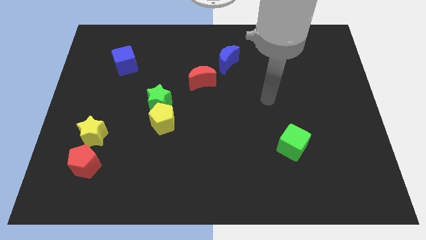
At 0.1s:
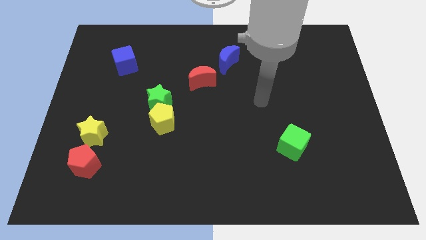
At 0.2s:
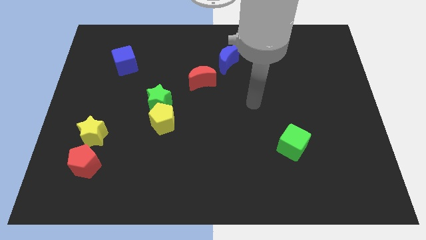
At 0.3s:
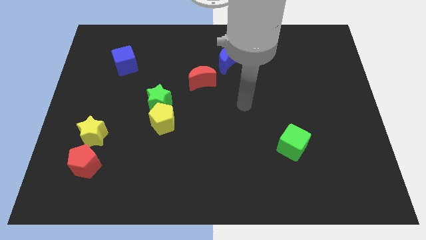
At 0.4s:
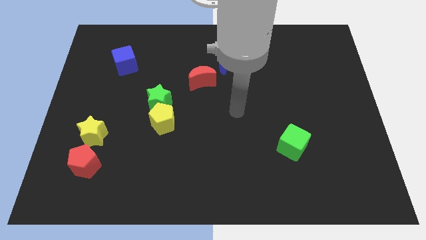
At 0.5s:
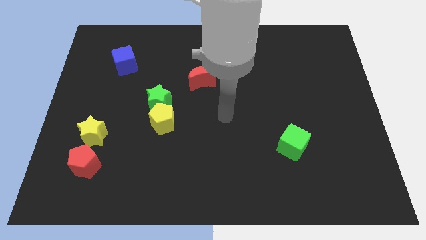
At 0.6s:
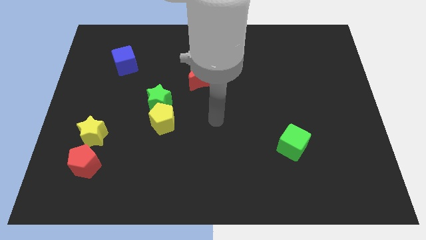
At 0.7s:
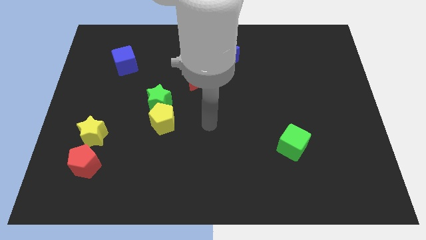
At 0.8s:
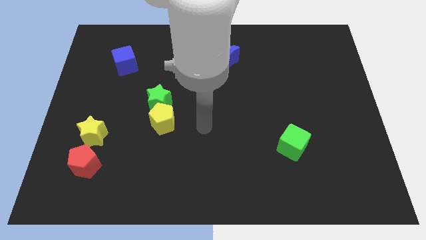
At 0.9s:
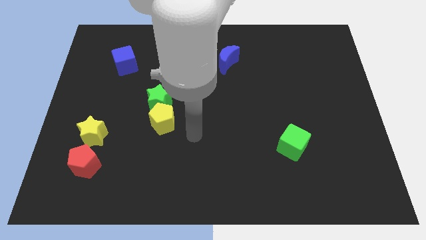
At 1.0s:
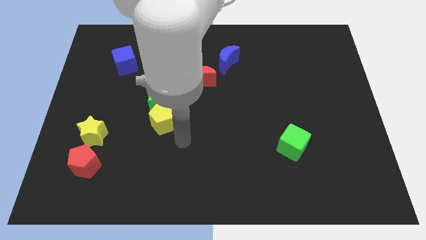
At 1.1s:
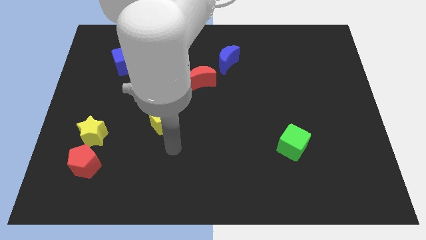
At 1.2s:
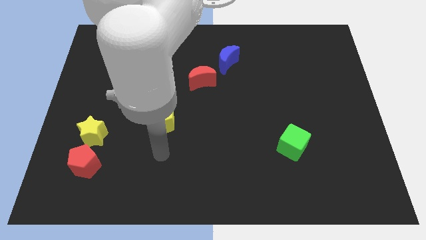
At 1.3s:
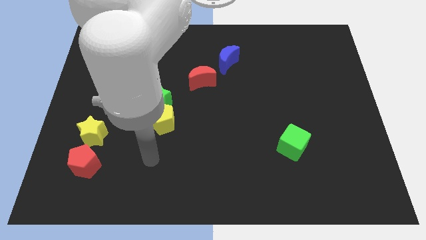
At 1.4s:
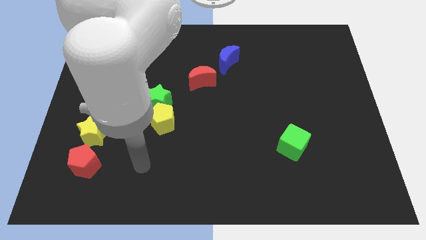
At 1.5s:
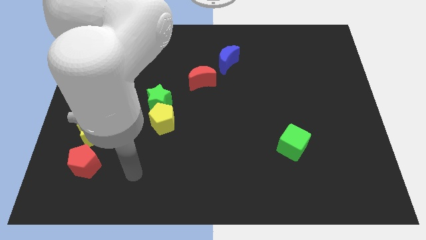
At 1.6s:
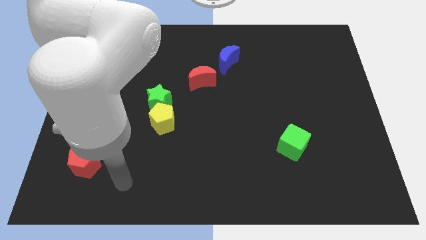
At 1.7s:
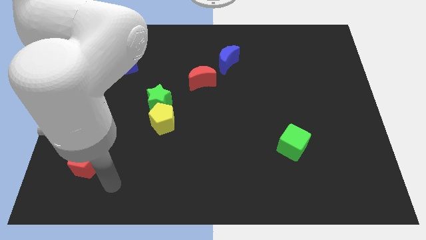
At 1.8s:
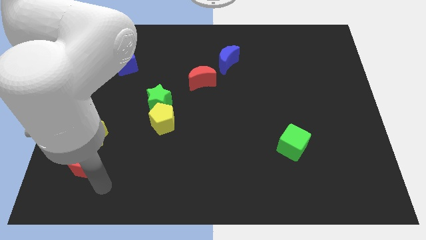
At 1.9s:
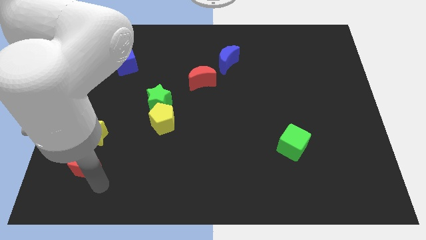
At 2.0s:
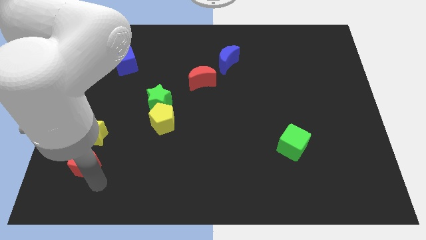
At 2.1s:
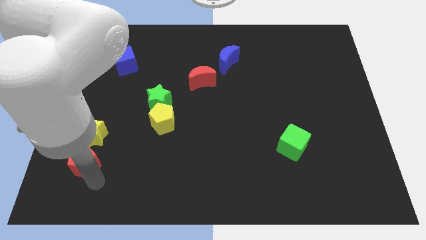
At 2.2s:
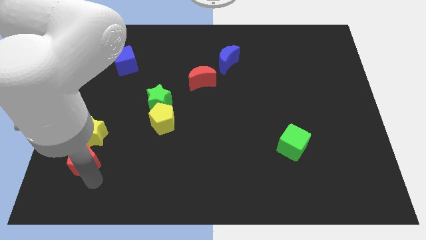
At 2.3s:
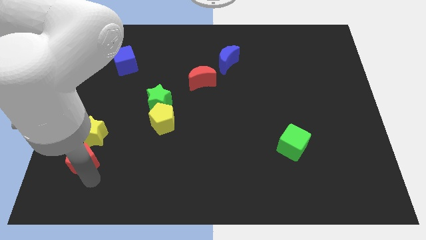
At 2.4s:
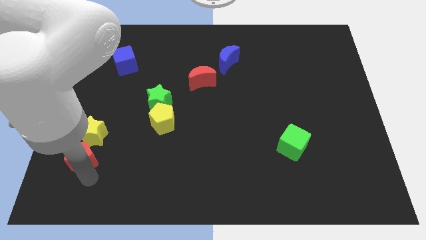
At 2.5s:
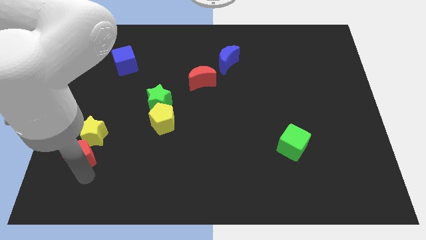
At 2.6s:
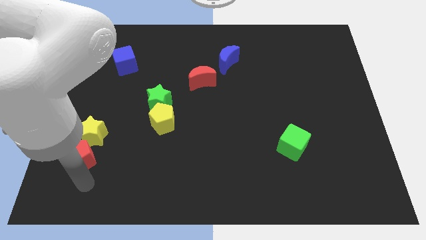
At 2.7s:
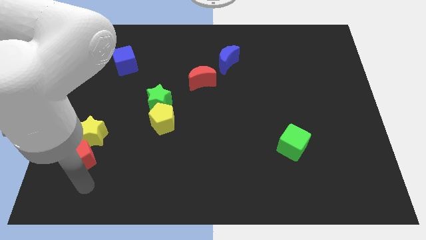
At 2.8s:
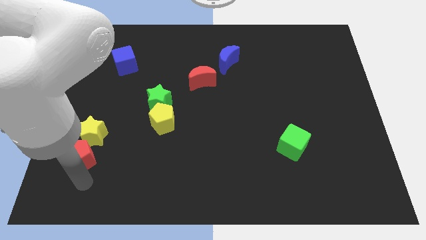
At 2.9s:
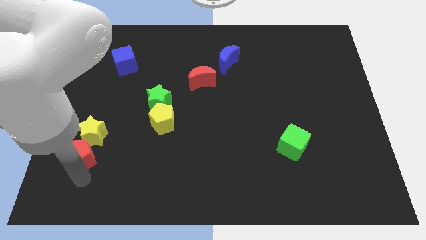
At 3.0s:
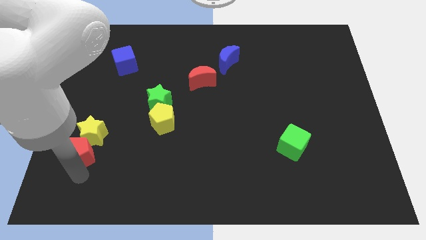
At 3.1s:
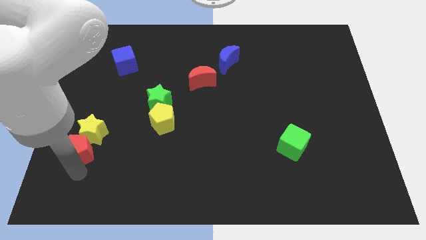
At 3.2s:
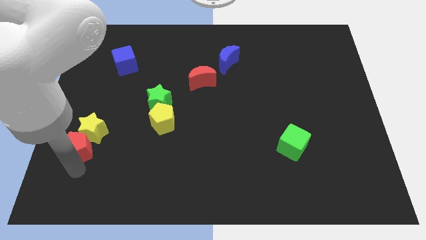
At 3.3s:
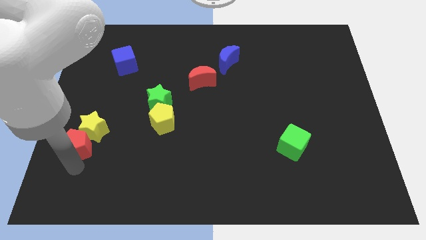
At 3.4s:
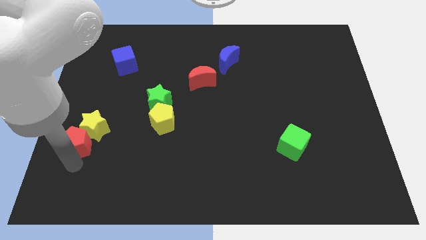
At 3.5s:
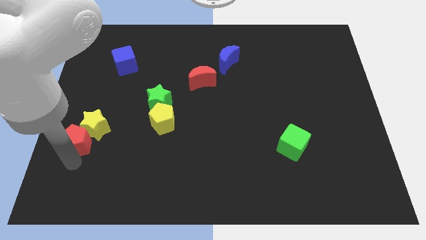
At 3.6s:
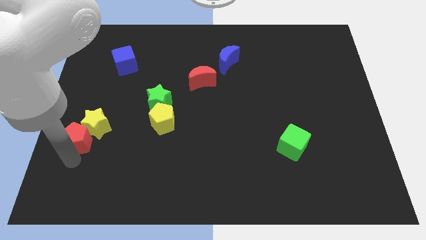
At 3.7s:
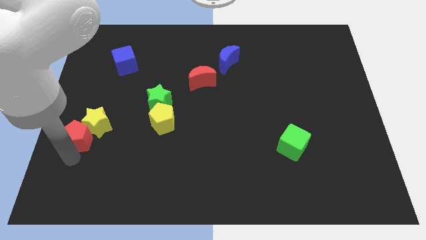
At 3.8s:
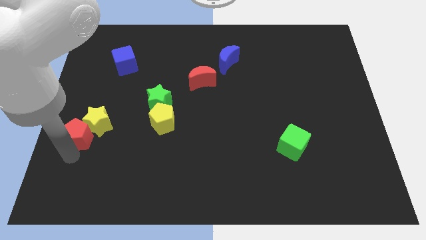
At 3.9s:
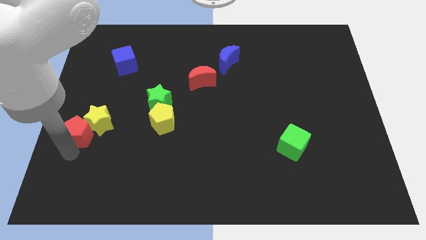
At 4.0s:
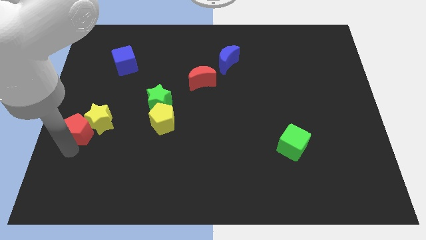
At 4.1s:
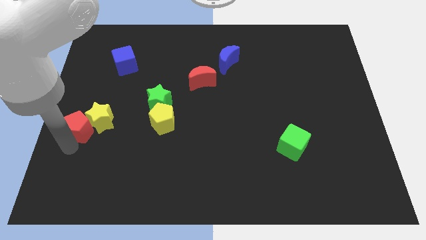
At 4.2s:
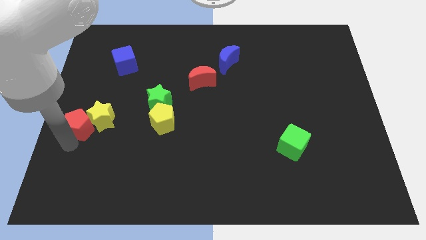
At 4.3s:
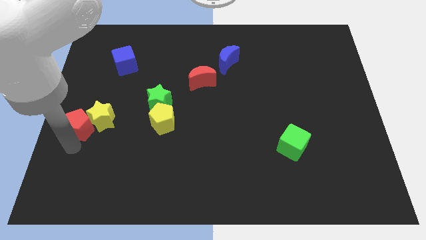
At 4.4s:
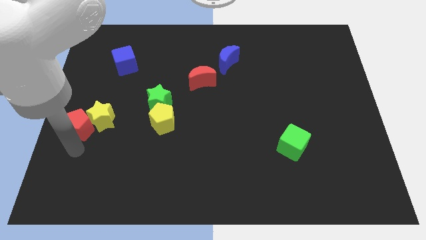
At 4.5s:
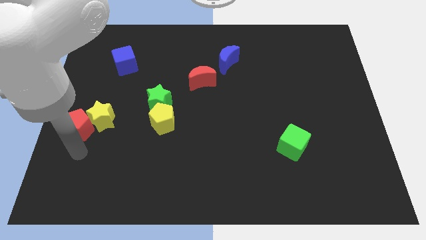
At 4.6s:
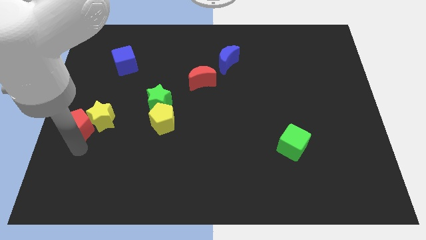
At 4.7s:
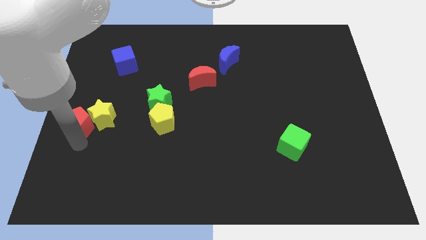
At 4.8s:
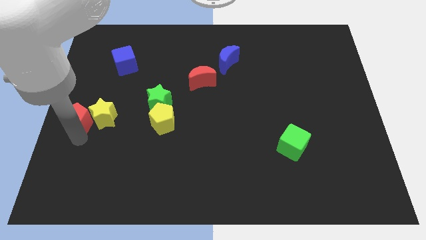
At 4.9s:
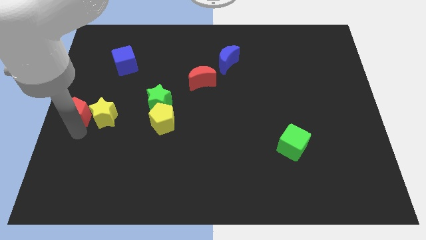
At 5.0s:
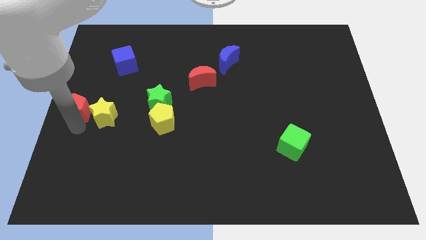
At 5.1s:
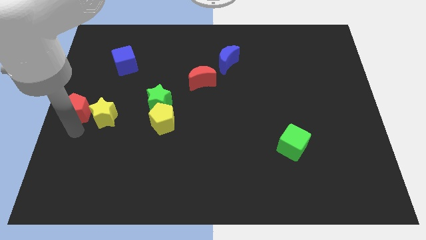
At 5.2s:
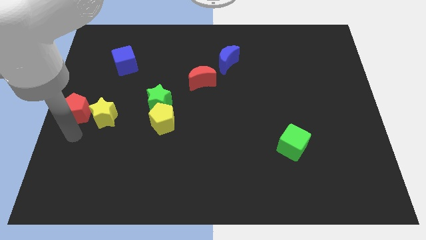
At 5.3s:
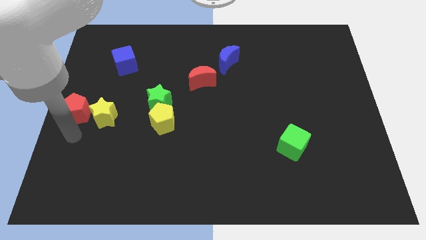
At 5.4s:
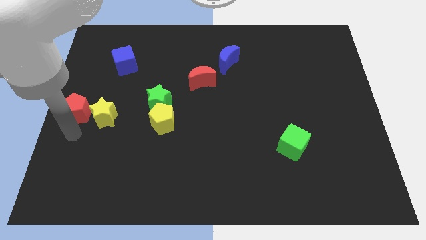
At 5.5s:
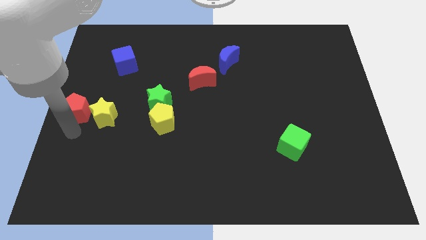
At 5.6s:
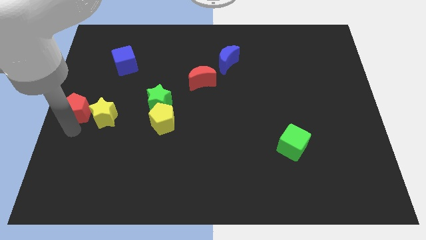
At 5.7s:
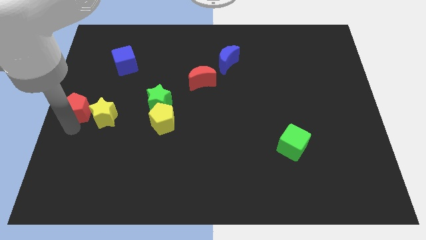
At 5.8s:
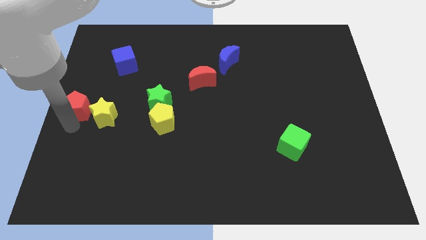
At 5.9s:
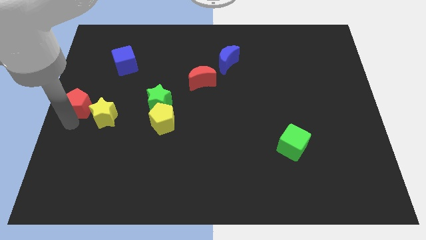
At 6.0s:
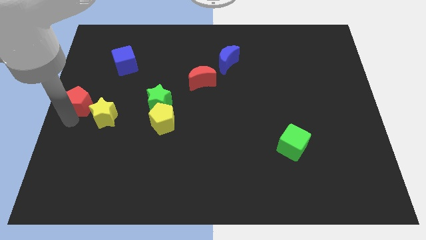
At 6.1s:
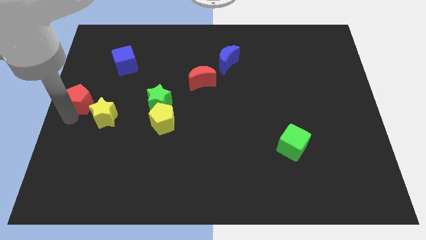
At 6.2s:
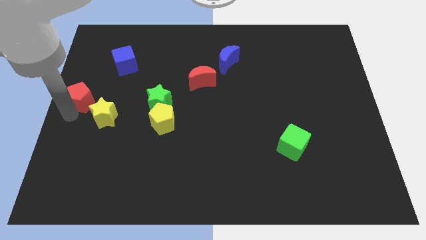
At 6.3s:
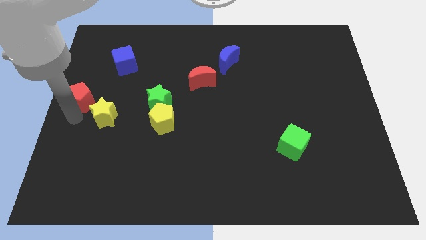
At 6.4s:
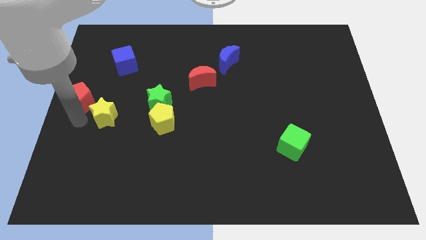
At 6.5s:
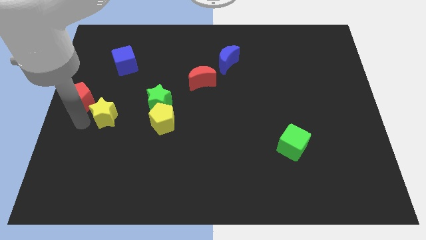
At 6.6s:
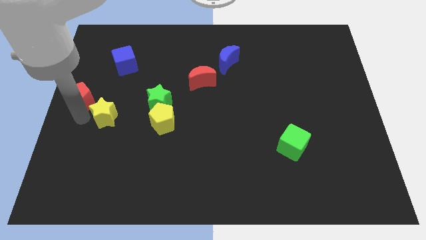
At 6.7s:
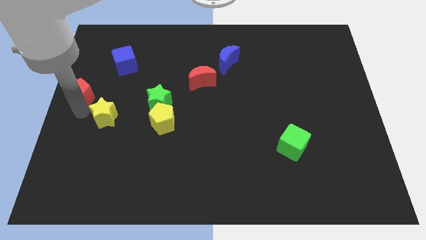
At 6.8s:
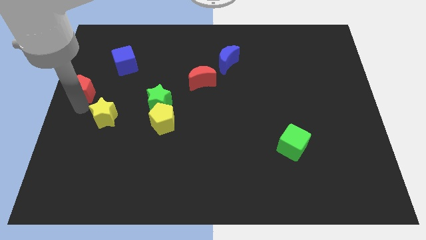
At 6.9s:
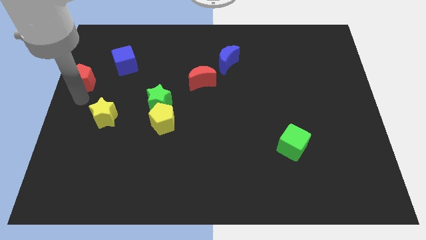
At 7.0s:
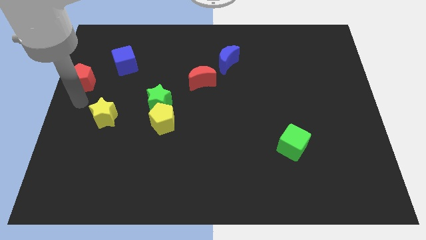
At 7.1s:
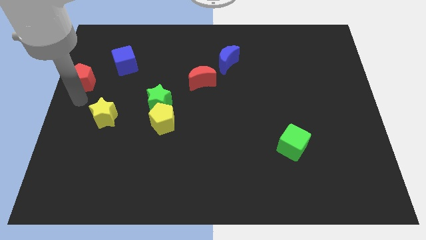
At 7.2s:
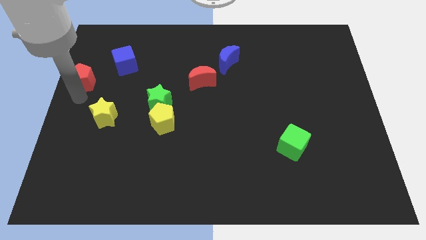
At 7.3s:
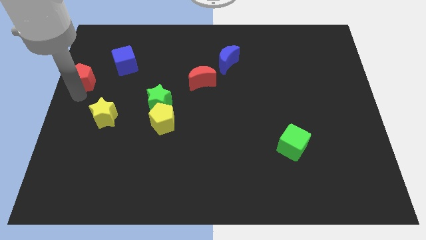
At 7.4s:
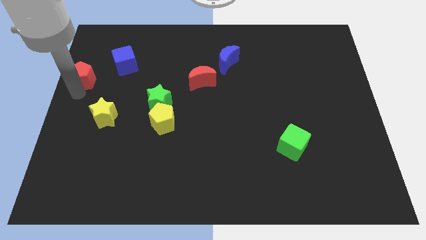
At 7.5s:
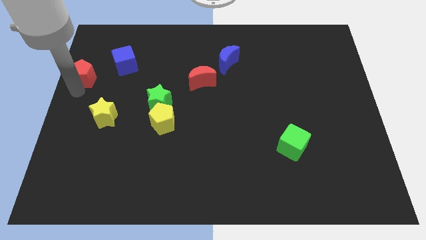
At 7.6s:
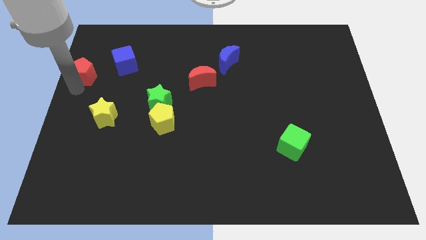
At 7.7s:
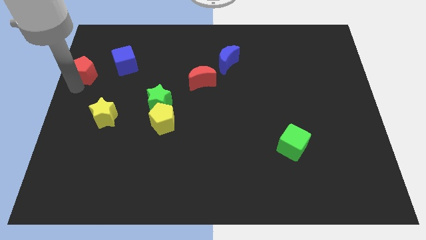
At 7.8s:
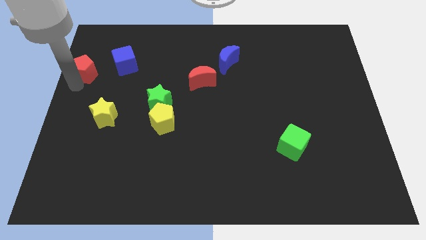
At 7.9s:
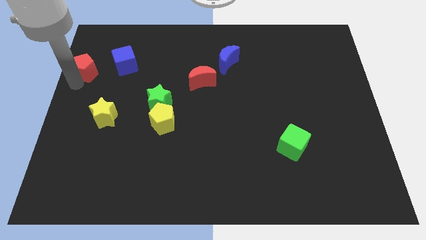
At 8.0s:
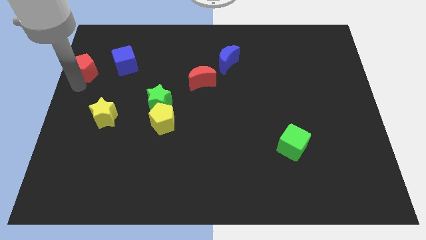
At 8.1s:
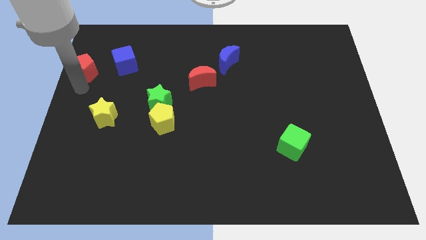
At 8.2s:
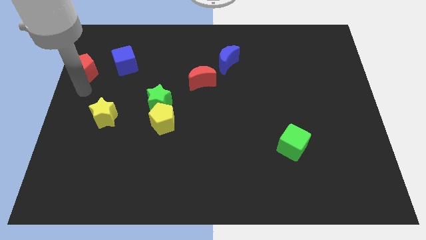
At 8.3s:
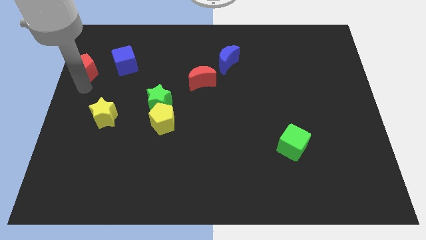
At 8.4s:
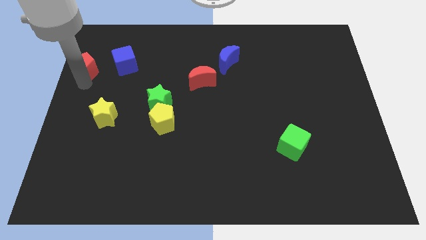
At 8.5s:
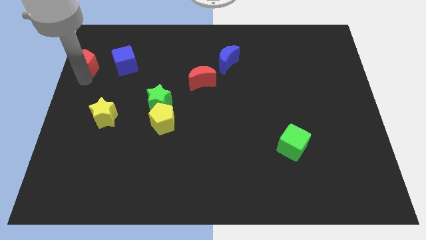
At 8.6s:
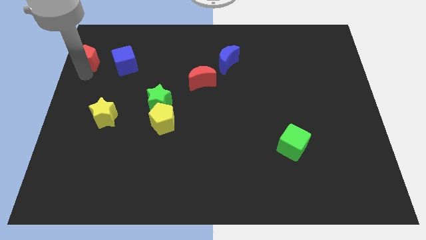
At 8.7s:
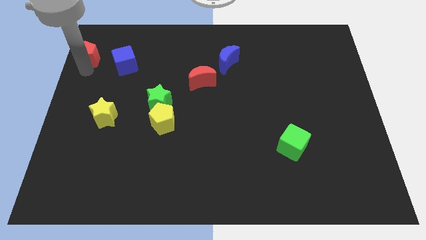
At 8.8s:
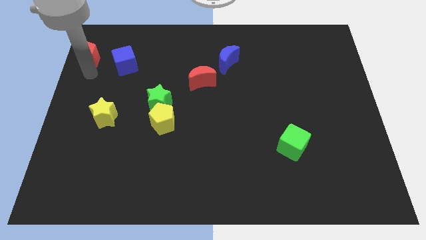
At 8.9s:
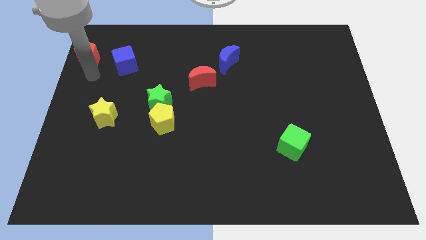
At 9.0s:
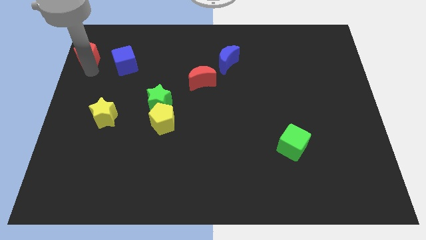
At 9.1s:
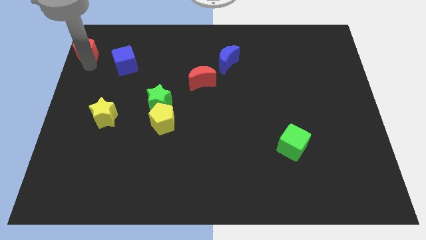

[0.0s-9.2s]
push the red pentagon to the top left of the board
